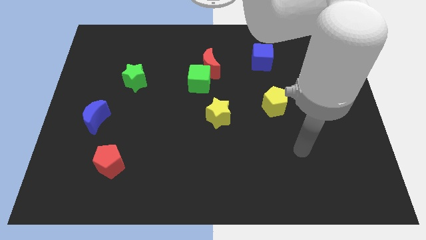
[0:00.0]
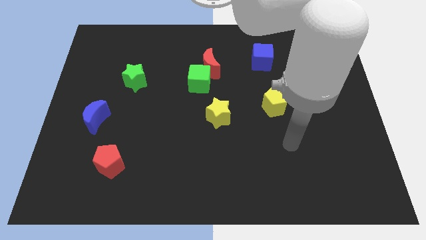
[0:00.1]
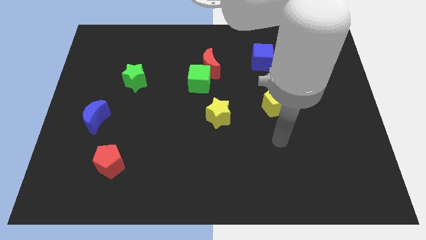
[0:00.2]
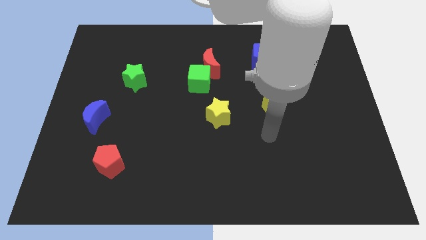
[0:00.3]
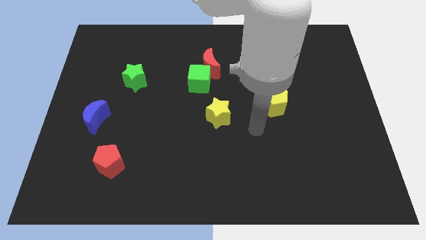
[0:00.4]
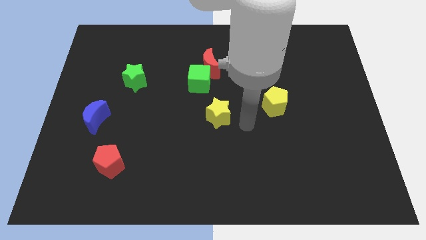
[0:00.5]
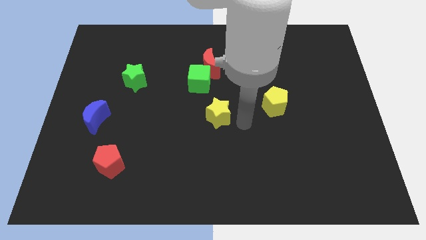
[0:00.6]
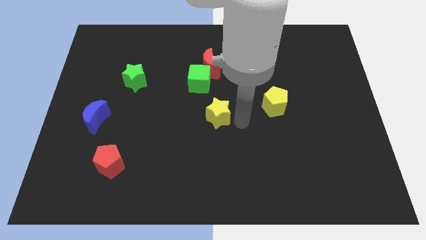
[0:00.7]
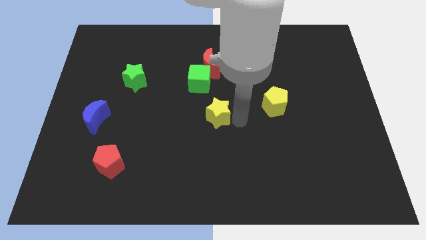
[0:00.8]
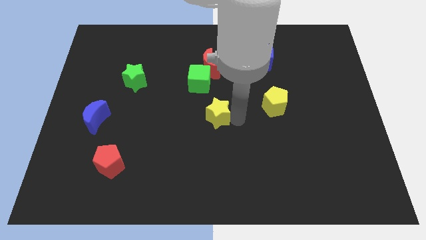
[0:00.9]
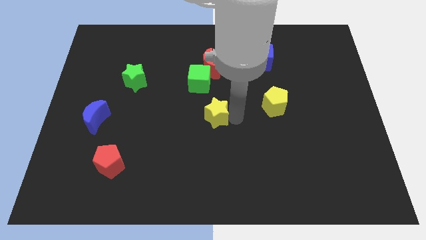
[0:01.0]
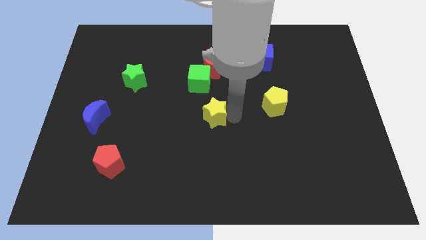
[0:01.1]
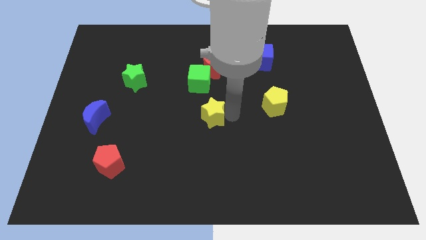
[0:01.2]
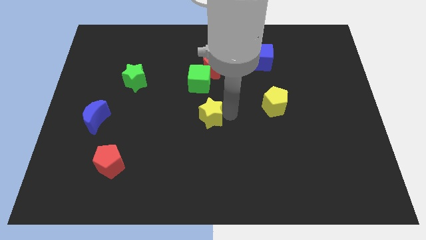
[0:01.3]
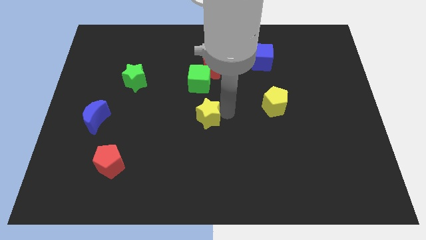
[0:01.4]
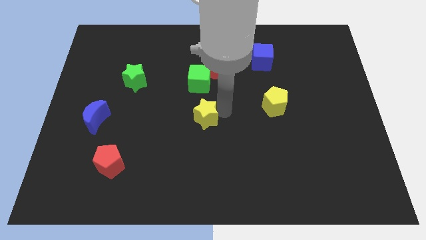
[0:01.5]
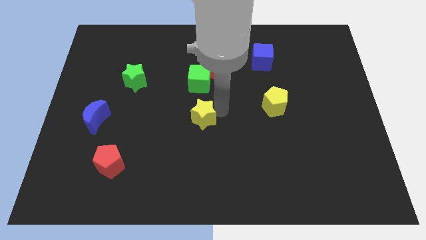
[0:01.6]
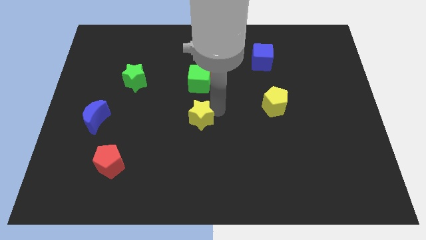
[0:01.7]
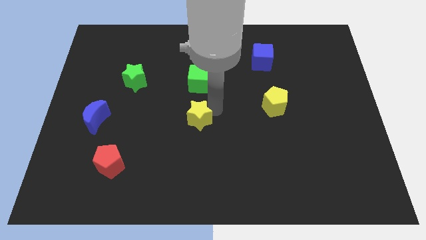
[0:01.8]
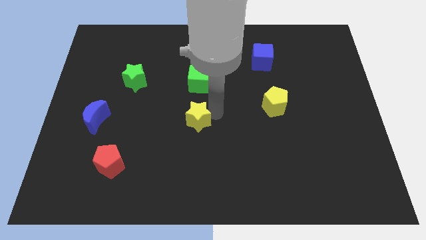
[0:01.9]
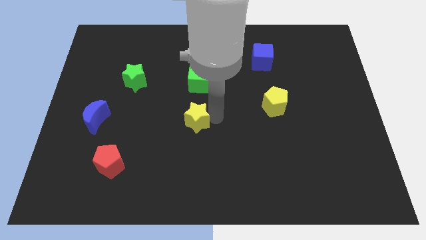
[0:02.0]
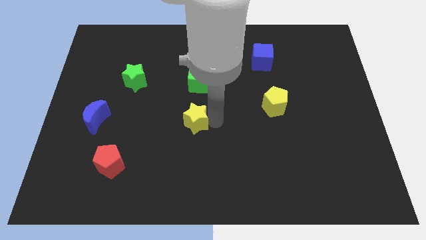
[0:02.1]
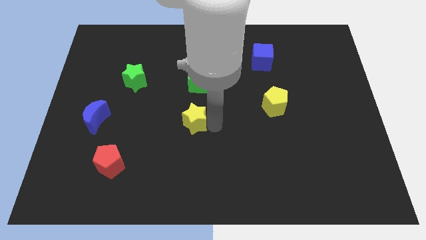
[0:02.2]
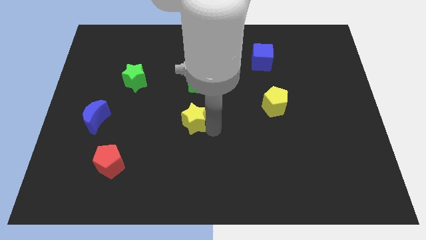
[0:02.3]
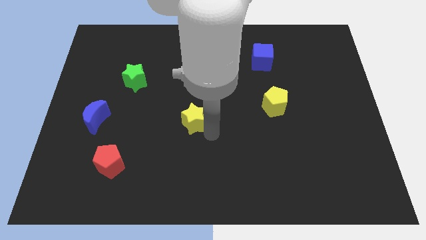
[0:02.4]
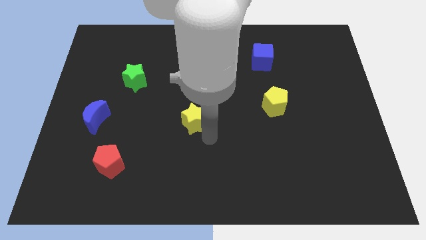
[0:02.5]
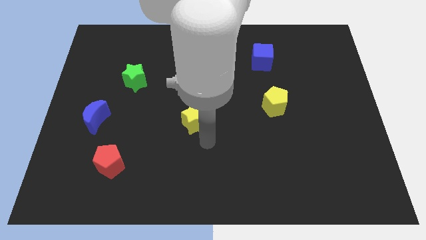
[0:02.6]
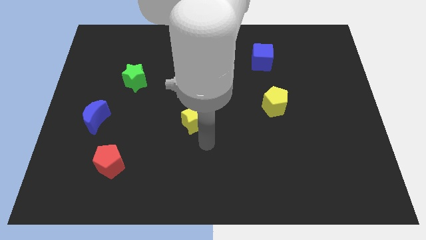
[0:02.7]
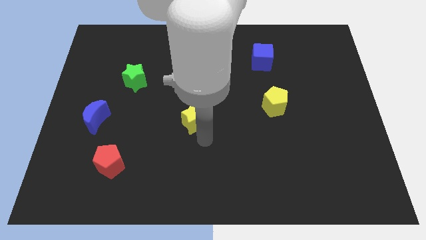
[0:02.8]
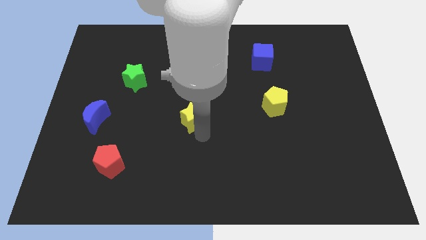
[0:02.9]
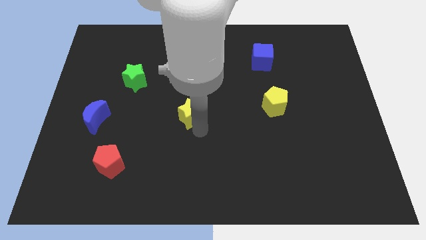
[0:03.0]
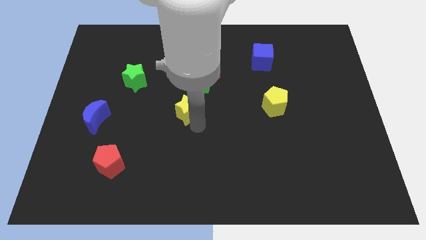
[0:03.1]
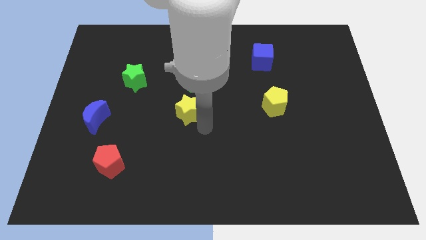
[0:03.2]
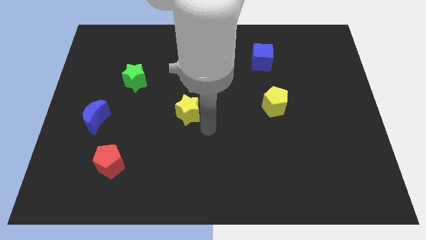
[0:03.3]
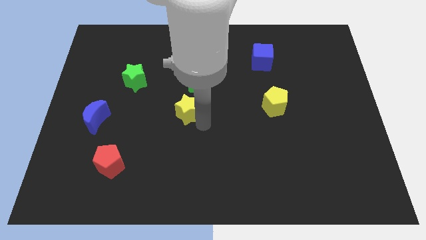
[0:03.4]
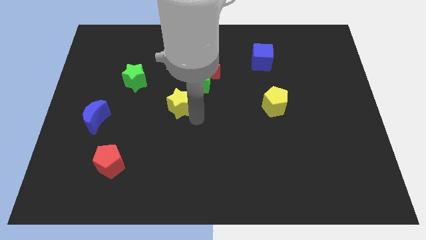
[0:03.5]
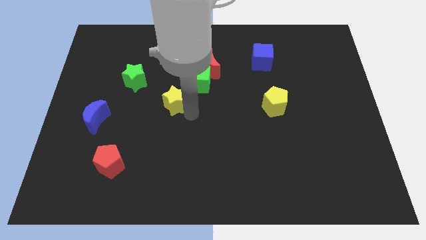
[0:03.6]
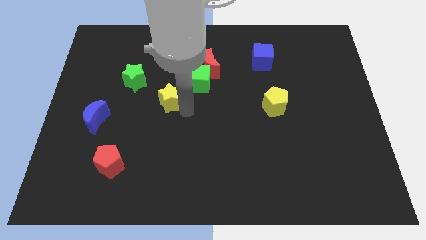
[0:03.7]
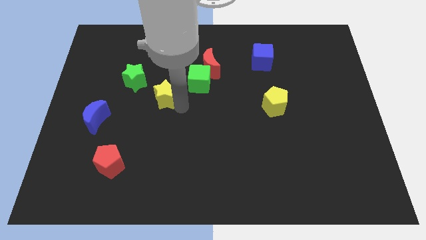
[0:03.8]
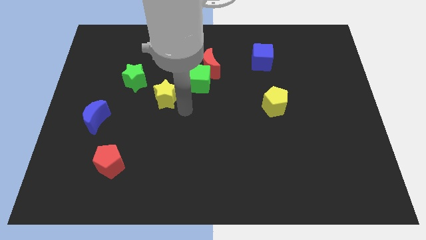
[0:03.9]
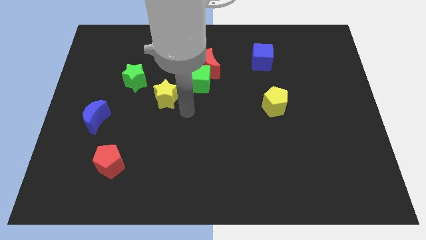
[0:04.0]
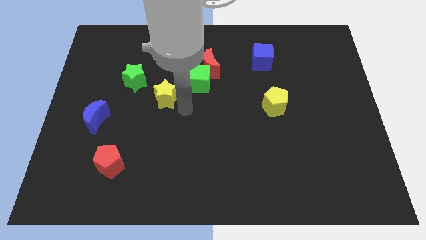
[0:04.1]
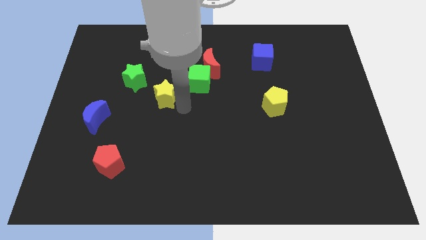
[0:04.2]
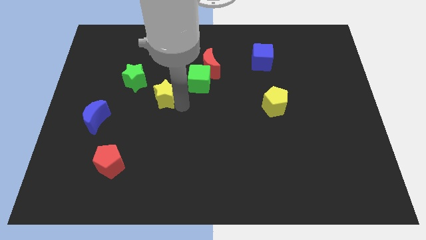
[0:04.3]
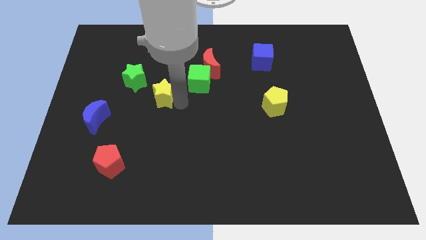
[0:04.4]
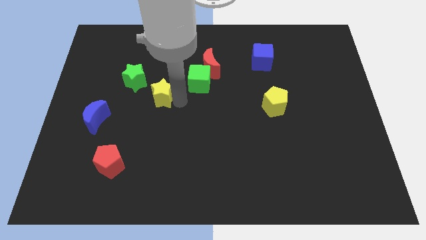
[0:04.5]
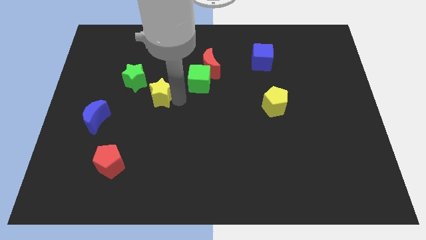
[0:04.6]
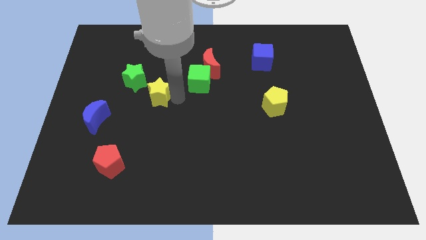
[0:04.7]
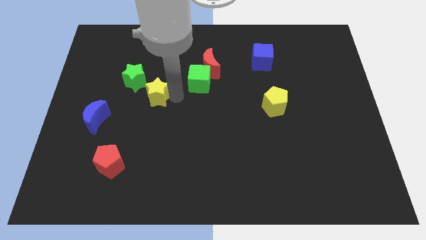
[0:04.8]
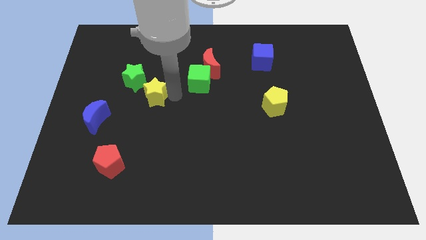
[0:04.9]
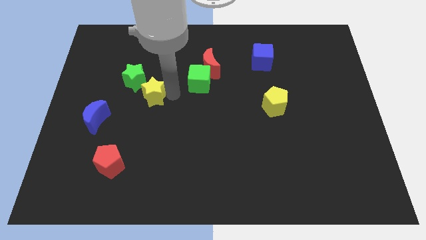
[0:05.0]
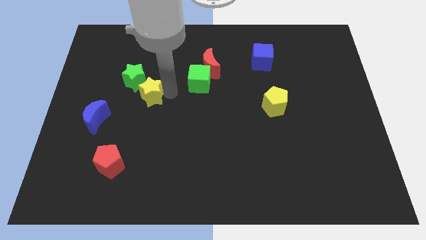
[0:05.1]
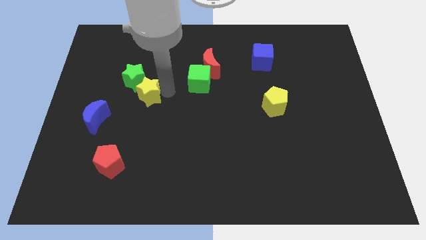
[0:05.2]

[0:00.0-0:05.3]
slide the yellow star next to the green star

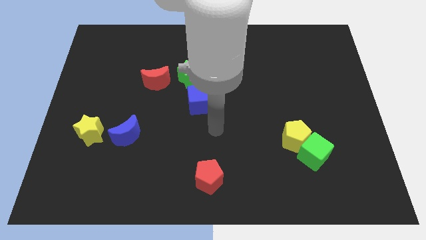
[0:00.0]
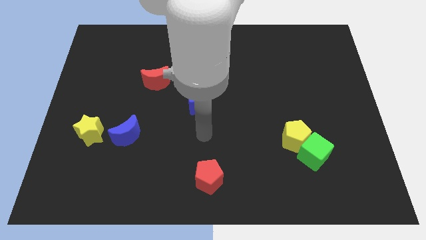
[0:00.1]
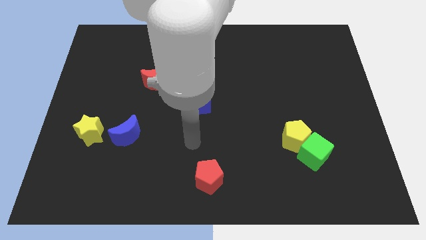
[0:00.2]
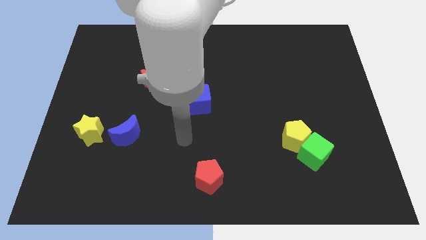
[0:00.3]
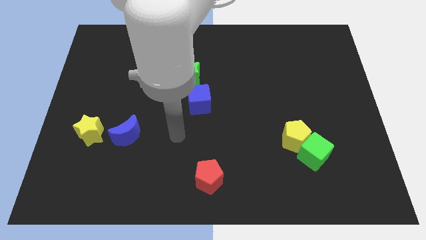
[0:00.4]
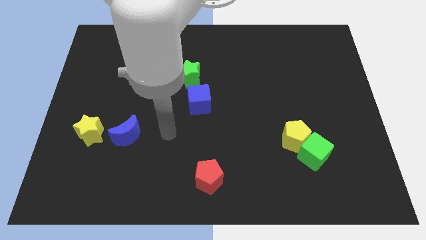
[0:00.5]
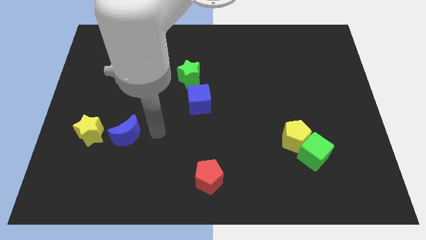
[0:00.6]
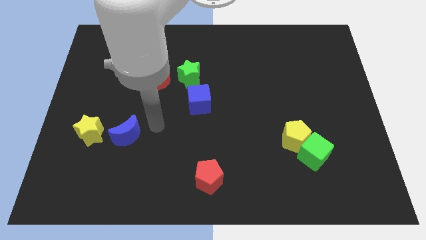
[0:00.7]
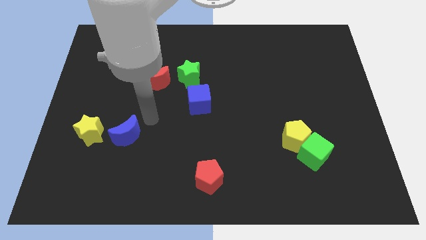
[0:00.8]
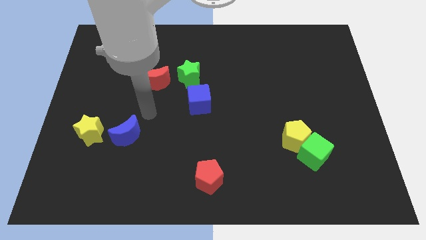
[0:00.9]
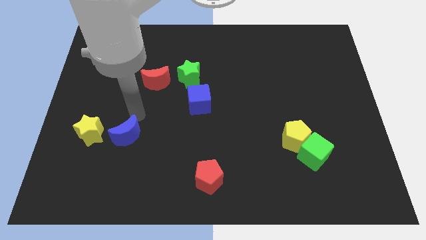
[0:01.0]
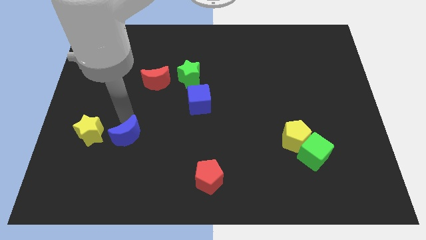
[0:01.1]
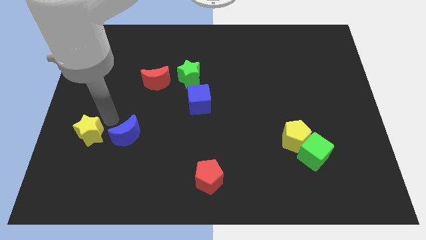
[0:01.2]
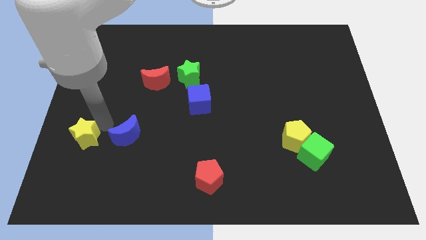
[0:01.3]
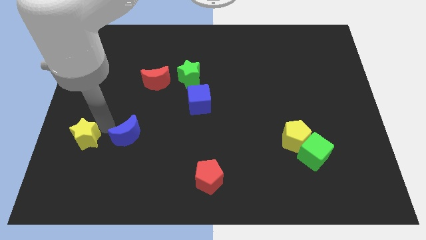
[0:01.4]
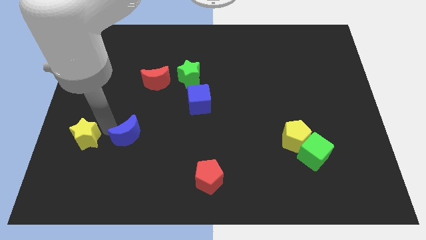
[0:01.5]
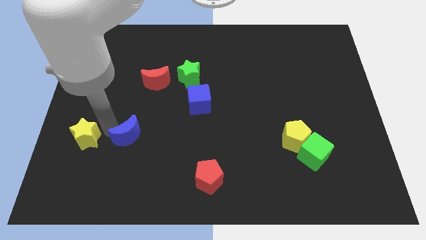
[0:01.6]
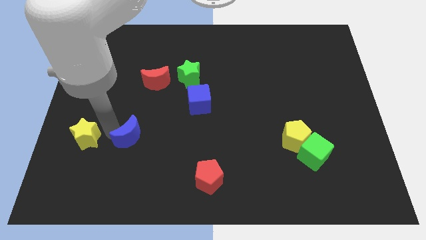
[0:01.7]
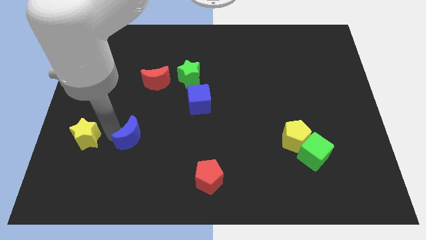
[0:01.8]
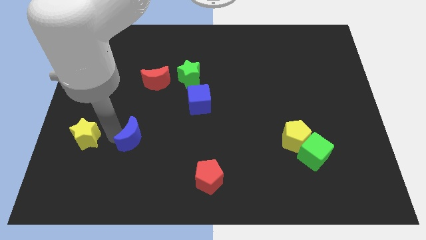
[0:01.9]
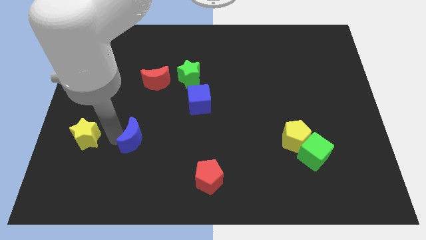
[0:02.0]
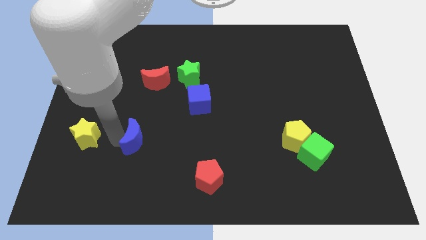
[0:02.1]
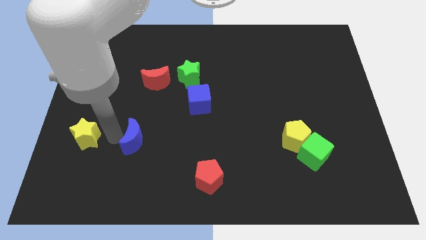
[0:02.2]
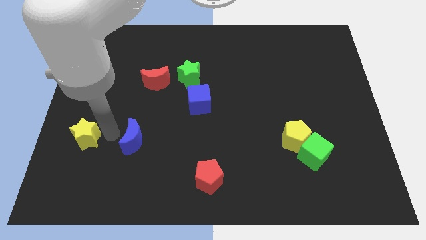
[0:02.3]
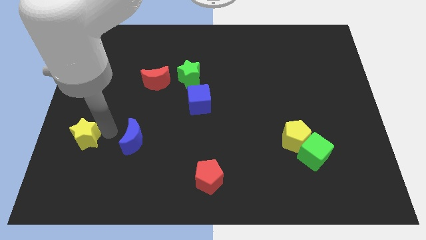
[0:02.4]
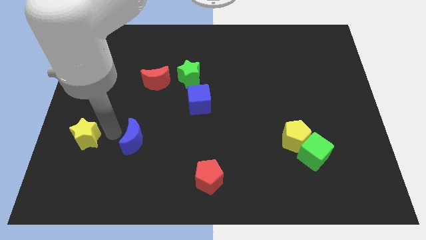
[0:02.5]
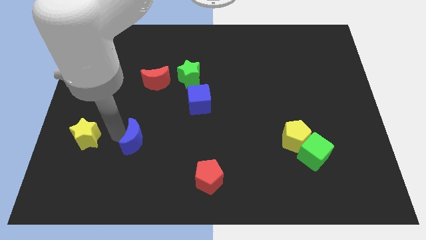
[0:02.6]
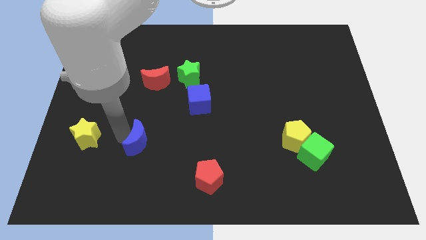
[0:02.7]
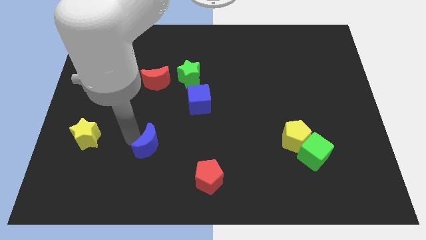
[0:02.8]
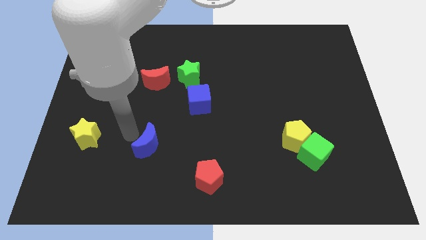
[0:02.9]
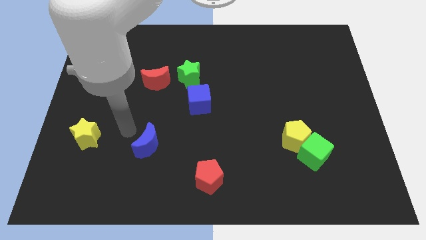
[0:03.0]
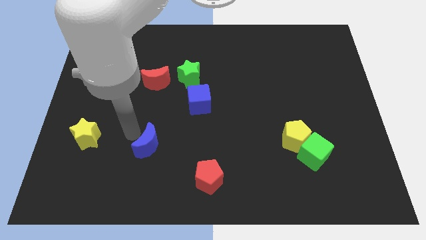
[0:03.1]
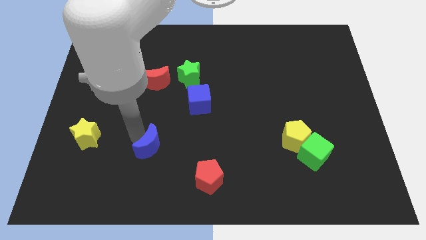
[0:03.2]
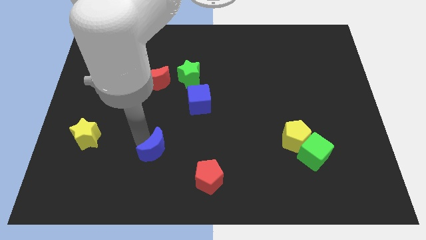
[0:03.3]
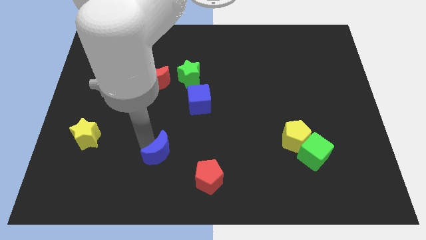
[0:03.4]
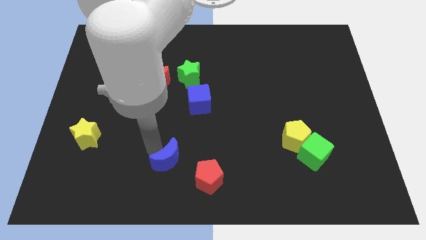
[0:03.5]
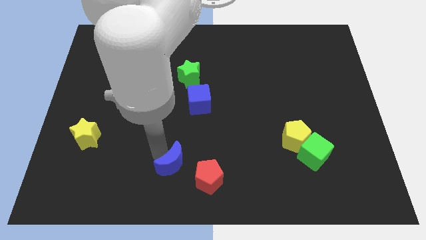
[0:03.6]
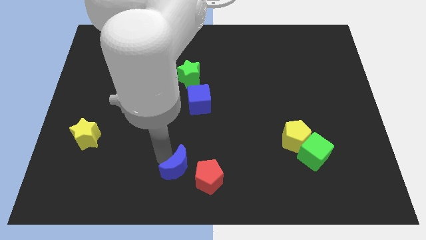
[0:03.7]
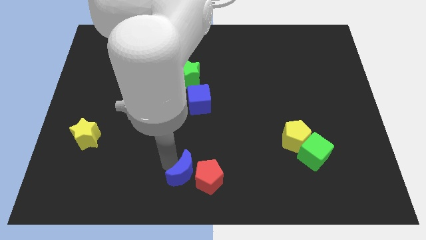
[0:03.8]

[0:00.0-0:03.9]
slide the blue moon towards the red pentagon
